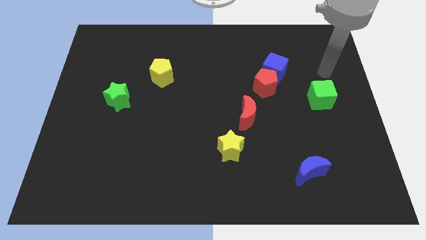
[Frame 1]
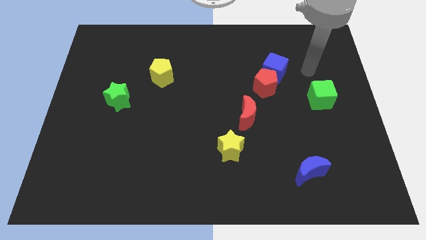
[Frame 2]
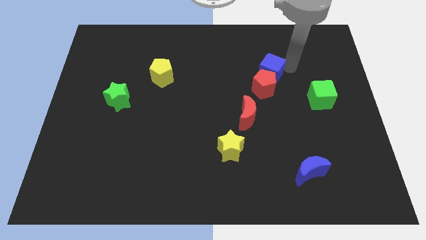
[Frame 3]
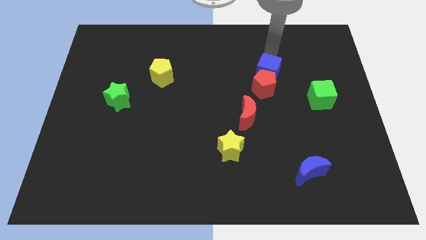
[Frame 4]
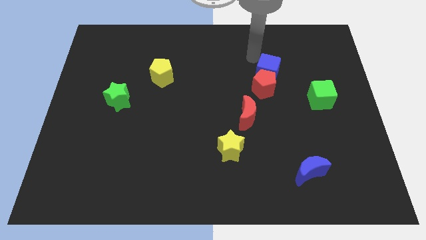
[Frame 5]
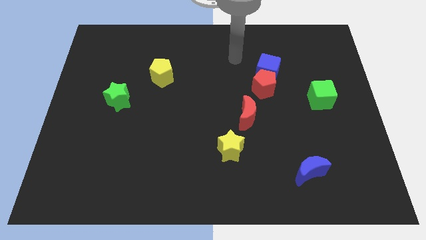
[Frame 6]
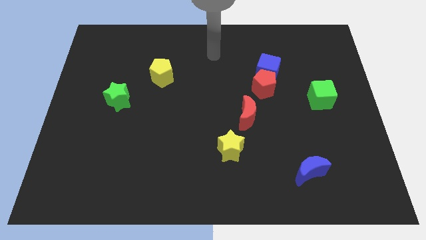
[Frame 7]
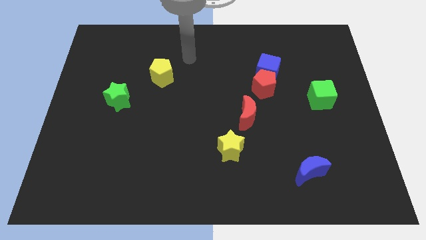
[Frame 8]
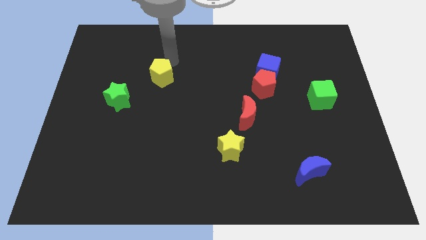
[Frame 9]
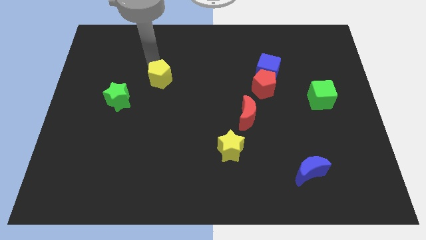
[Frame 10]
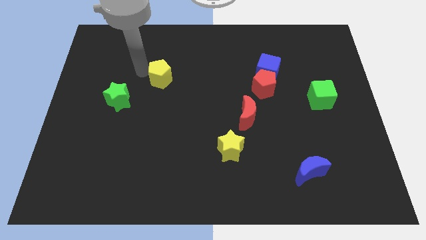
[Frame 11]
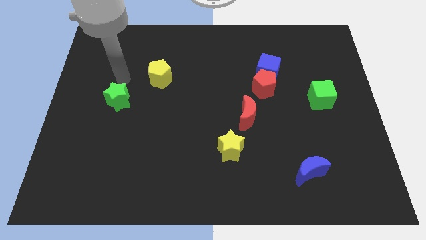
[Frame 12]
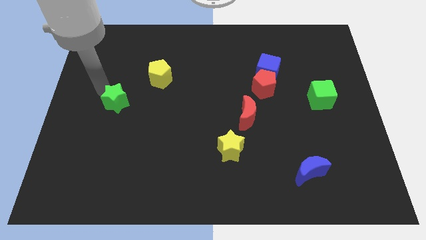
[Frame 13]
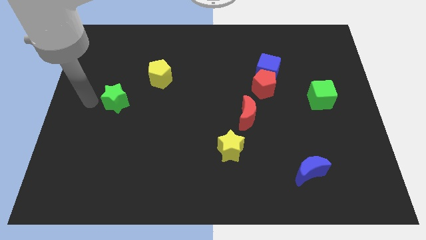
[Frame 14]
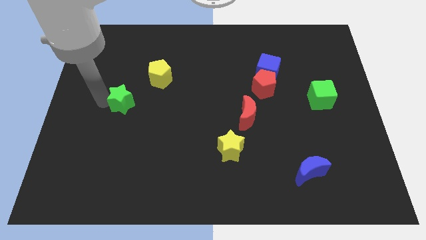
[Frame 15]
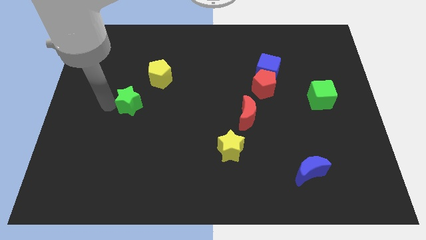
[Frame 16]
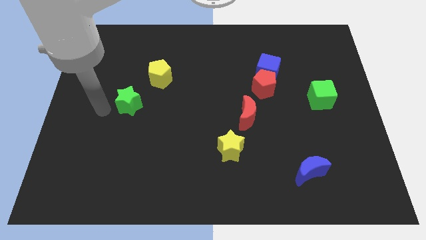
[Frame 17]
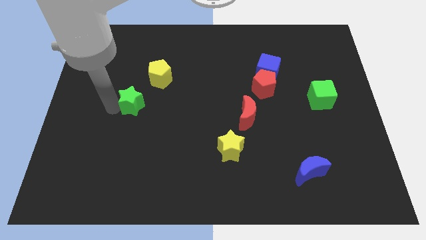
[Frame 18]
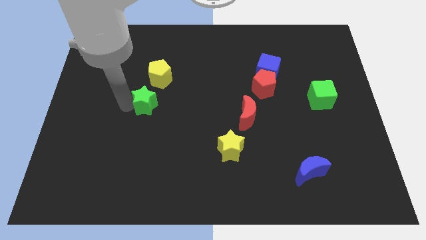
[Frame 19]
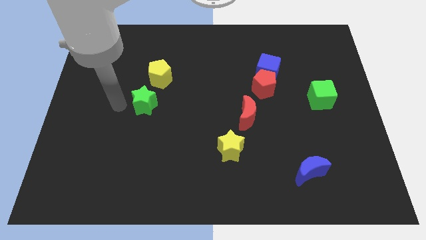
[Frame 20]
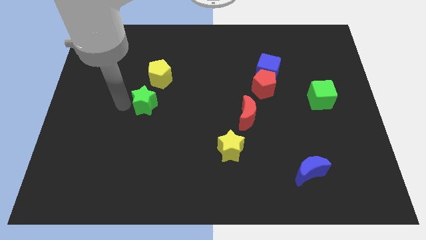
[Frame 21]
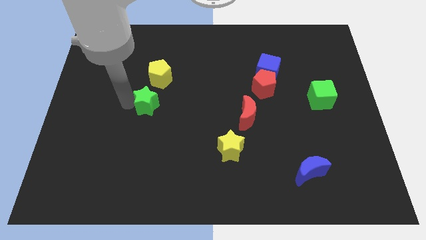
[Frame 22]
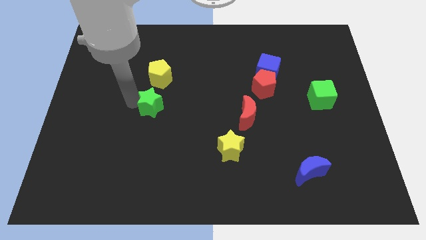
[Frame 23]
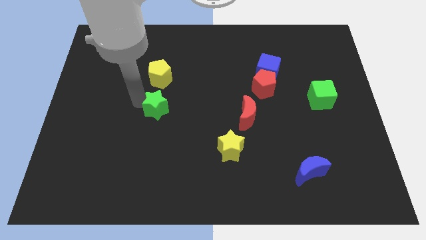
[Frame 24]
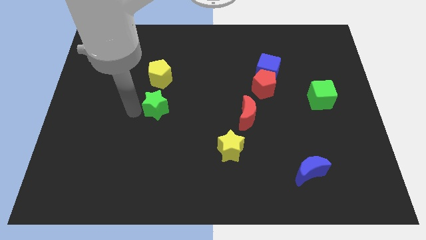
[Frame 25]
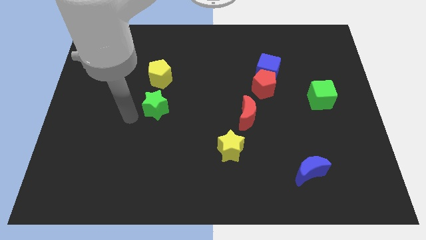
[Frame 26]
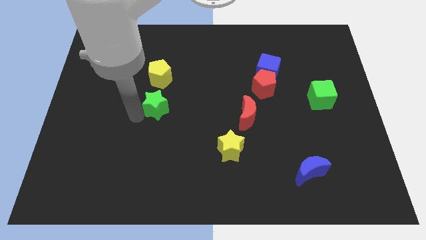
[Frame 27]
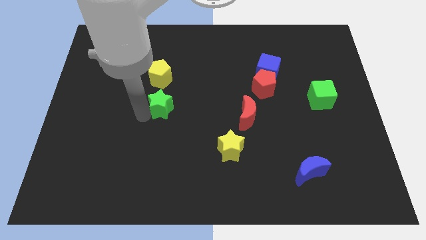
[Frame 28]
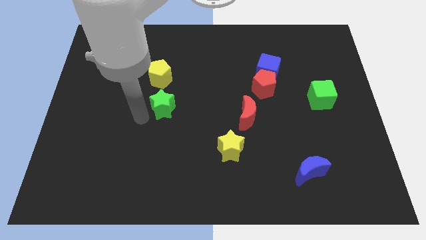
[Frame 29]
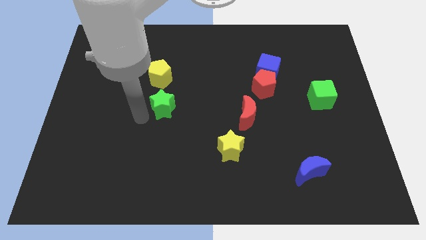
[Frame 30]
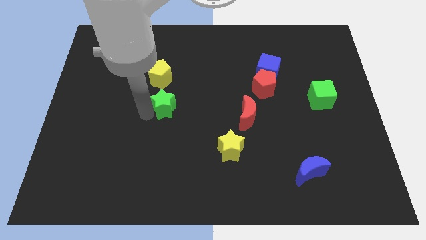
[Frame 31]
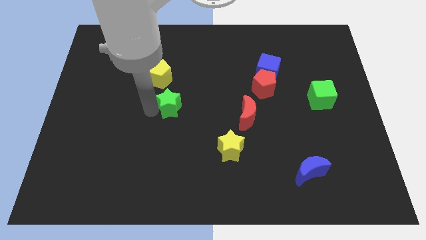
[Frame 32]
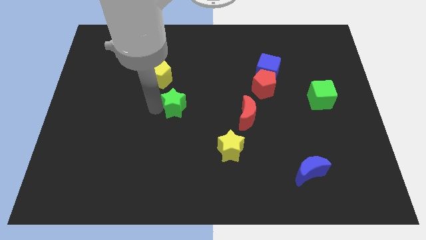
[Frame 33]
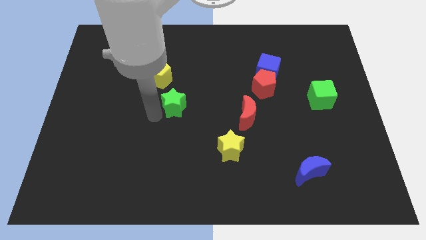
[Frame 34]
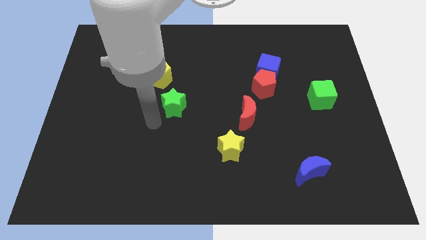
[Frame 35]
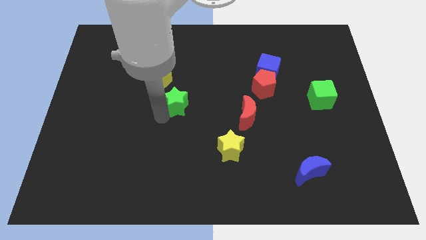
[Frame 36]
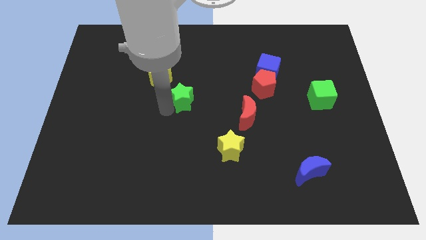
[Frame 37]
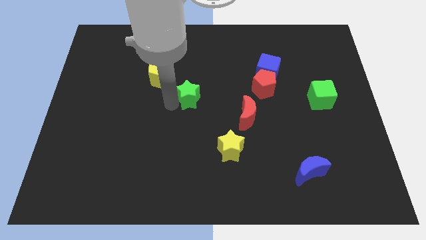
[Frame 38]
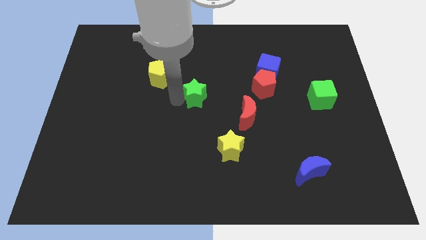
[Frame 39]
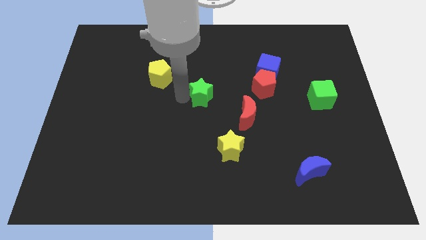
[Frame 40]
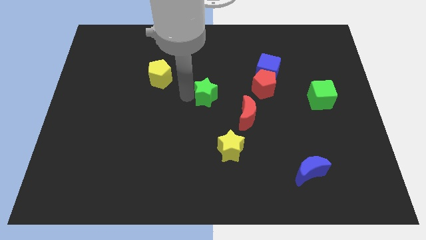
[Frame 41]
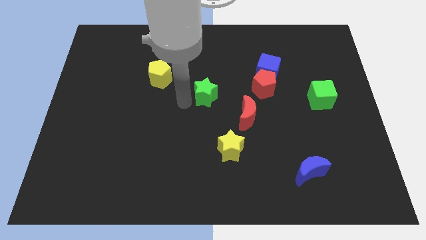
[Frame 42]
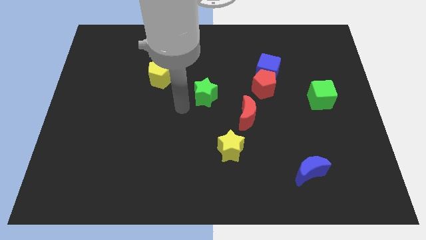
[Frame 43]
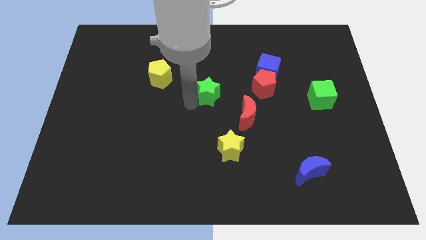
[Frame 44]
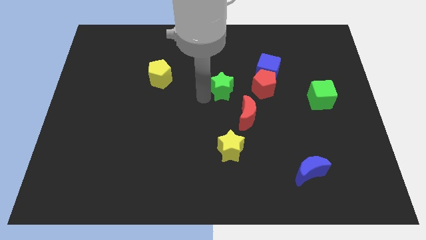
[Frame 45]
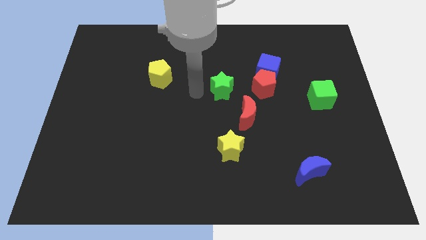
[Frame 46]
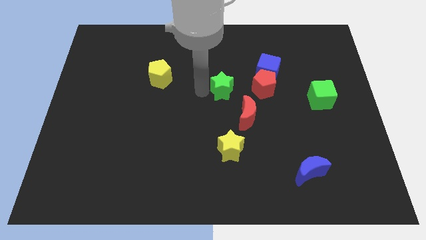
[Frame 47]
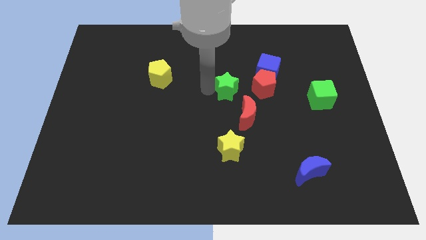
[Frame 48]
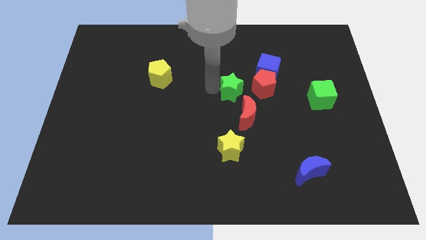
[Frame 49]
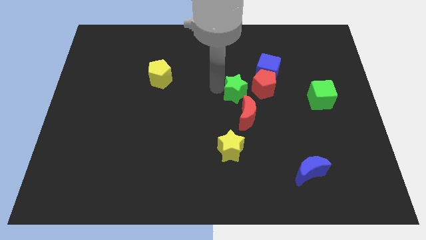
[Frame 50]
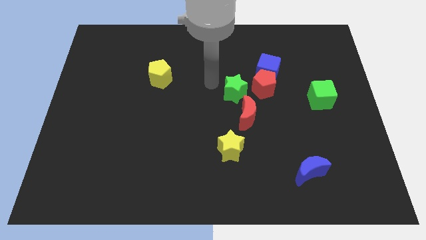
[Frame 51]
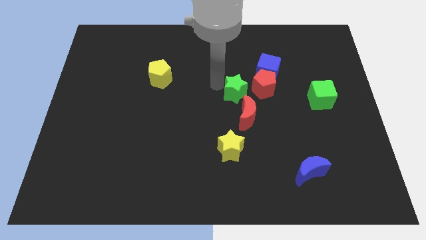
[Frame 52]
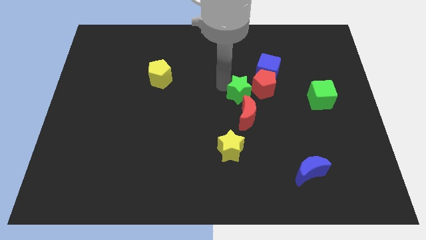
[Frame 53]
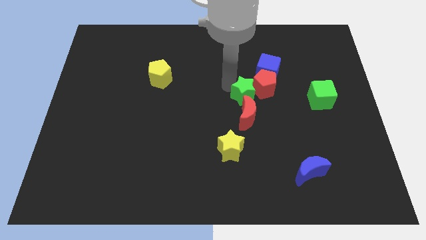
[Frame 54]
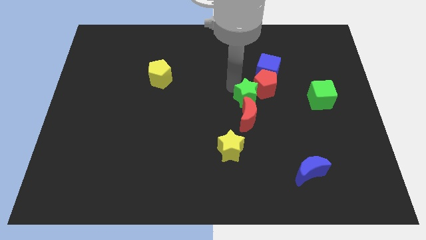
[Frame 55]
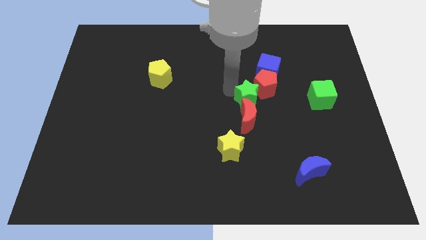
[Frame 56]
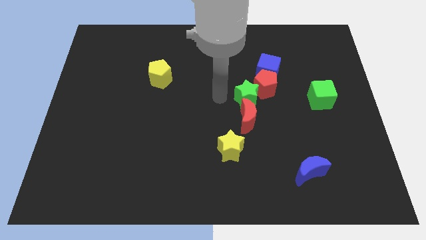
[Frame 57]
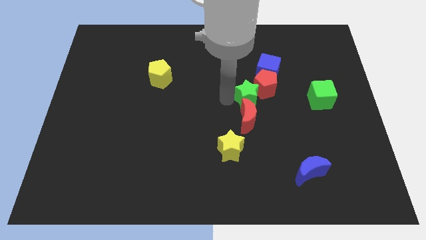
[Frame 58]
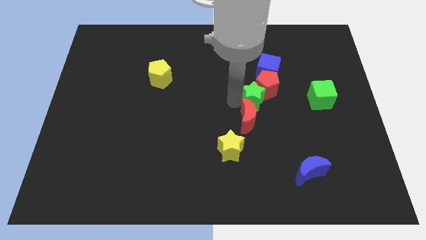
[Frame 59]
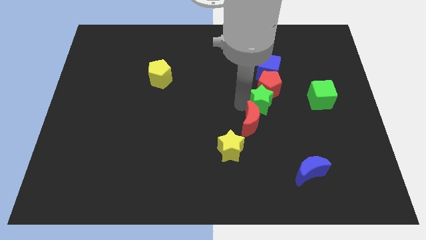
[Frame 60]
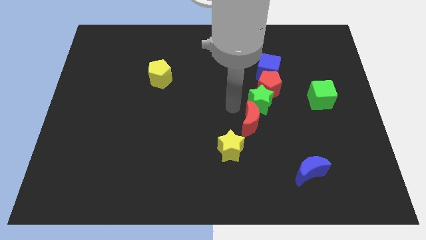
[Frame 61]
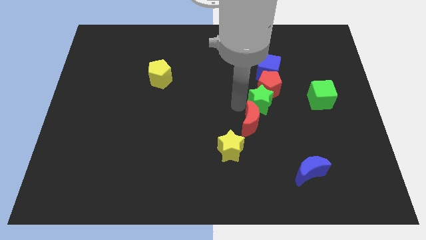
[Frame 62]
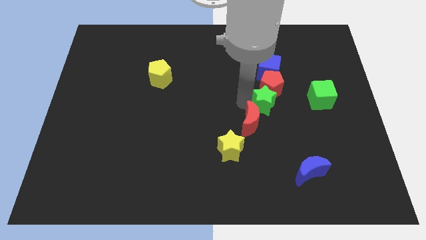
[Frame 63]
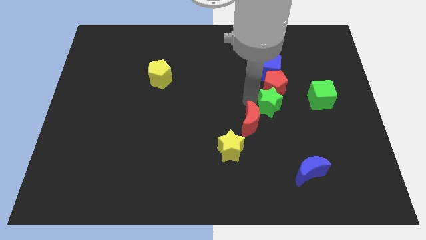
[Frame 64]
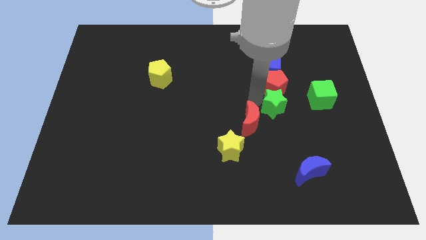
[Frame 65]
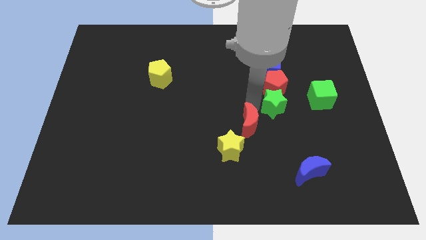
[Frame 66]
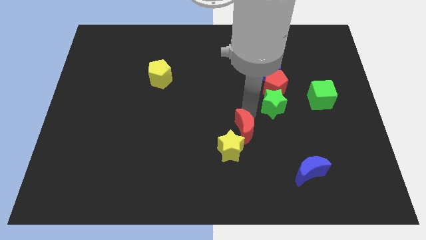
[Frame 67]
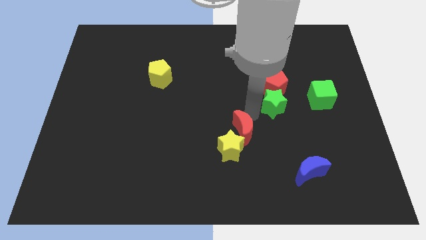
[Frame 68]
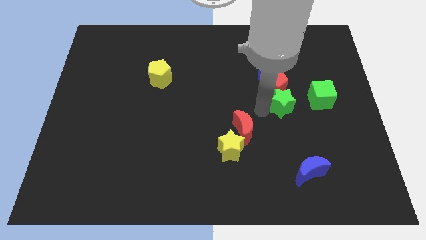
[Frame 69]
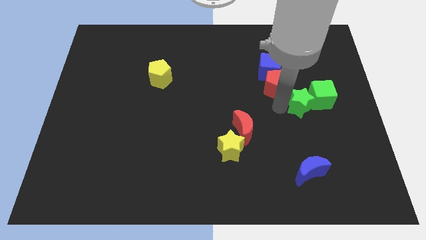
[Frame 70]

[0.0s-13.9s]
slide the green star to the green cube
